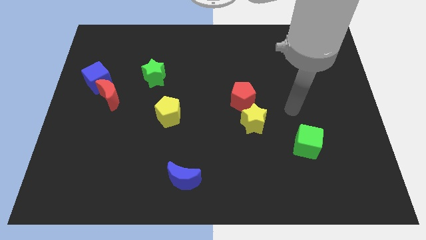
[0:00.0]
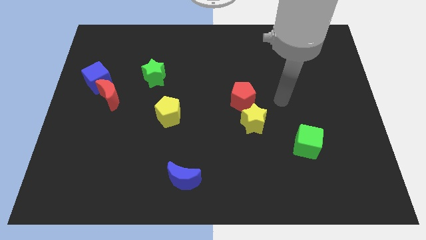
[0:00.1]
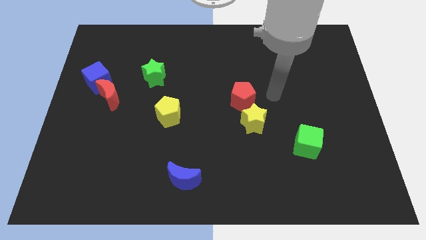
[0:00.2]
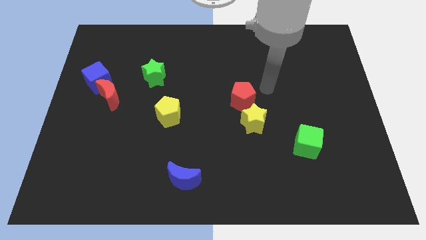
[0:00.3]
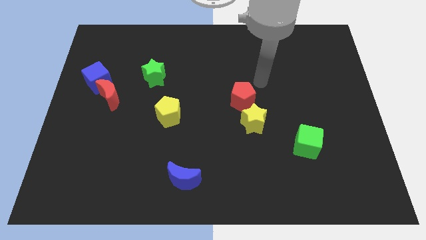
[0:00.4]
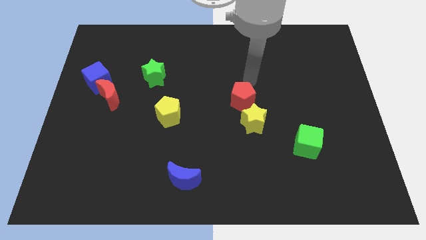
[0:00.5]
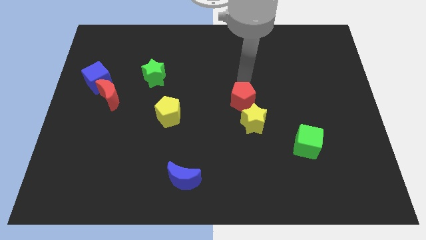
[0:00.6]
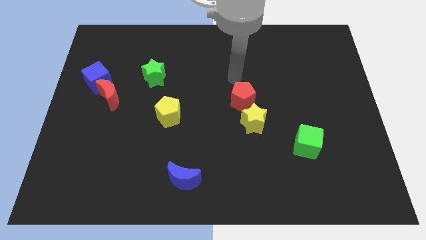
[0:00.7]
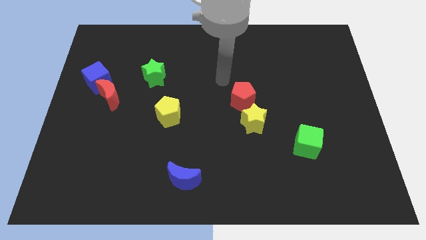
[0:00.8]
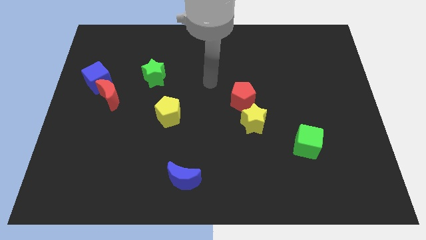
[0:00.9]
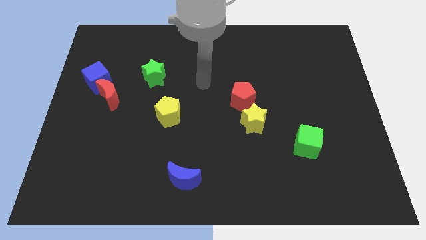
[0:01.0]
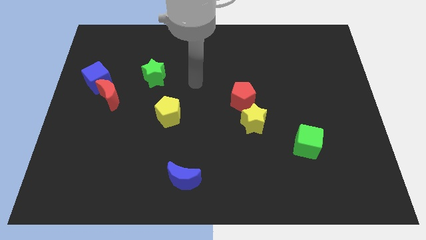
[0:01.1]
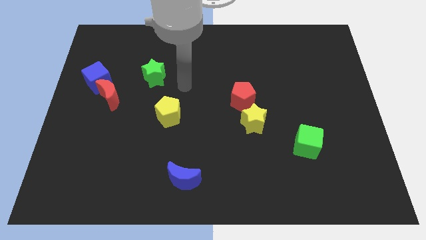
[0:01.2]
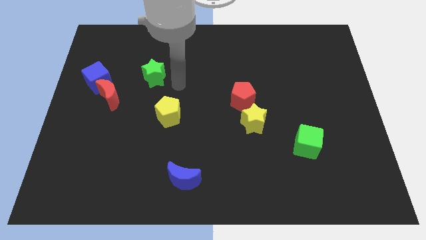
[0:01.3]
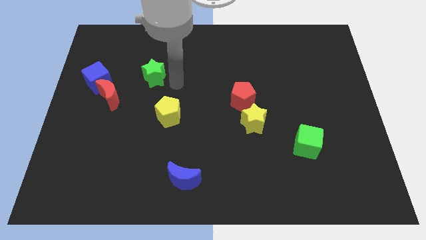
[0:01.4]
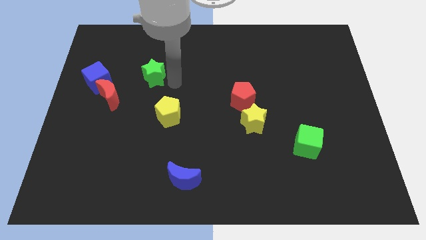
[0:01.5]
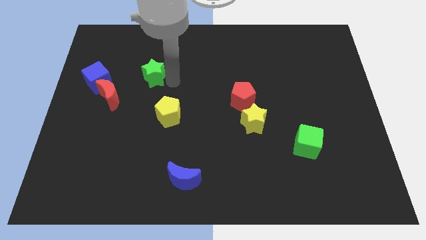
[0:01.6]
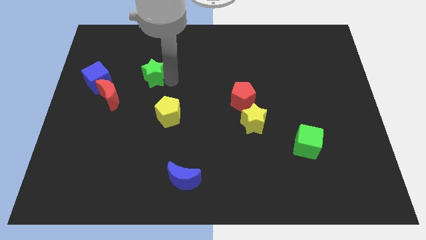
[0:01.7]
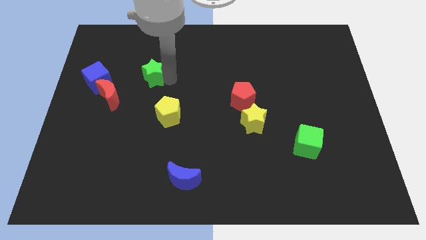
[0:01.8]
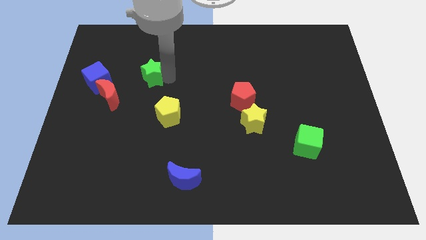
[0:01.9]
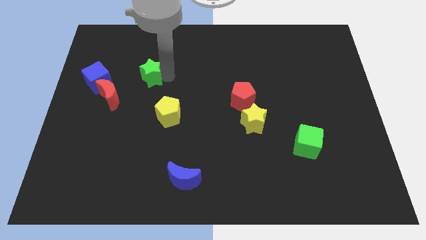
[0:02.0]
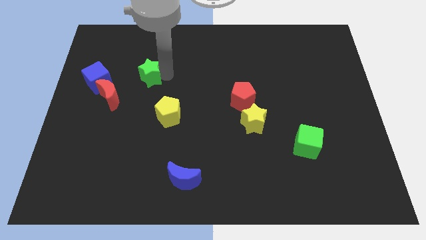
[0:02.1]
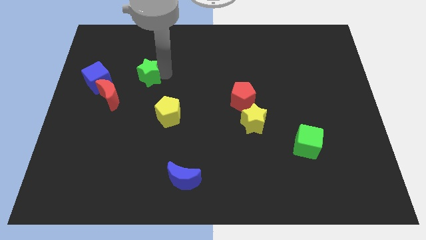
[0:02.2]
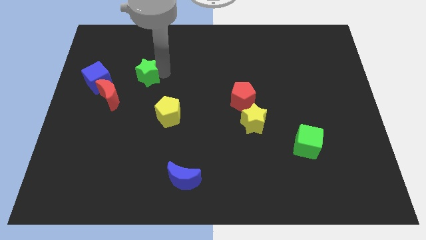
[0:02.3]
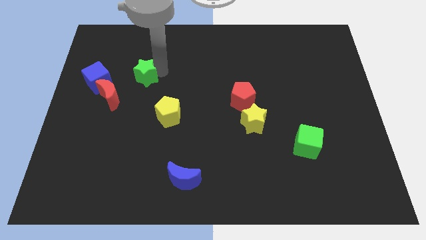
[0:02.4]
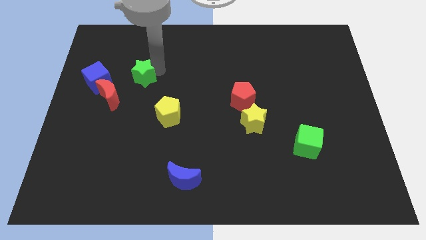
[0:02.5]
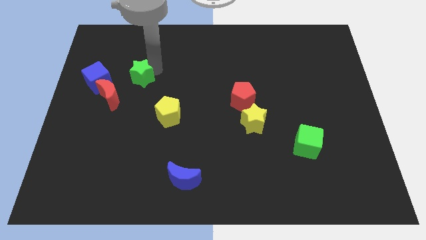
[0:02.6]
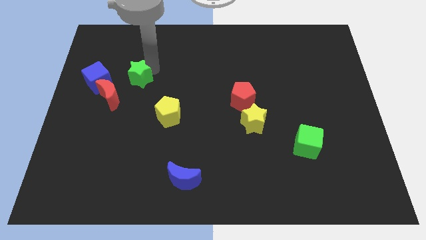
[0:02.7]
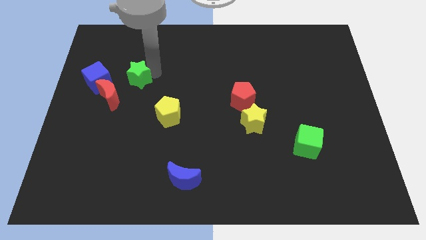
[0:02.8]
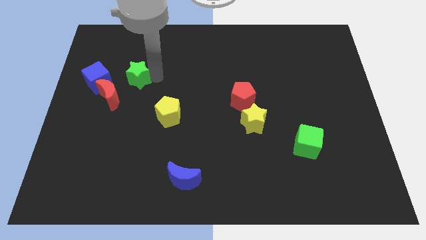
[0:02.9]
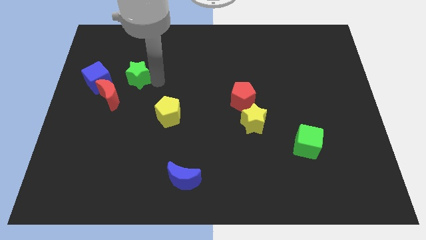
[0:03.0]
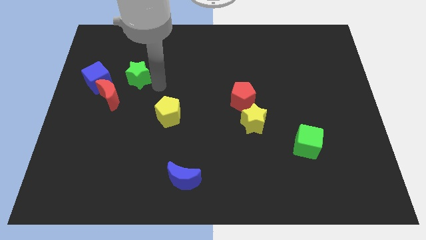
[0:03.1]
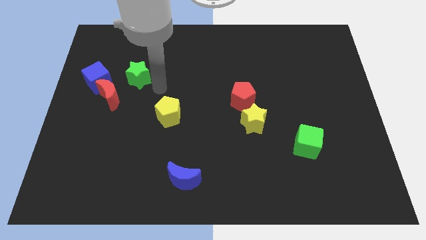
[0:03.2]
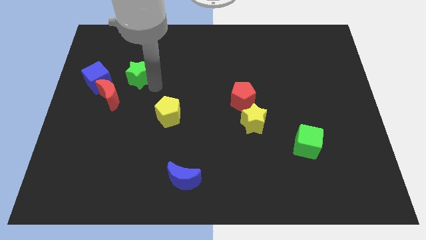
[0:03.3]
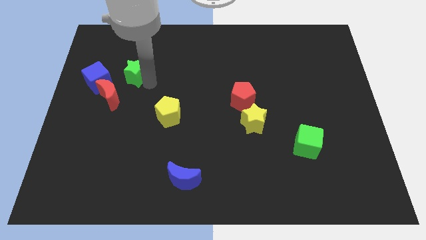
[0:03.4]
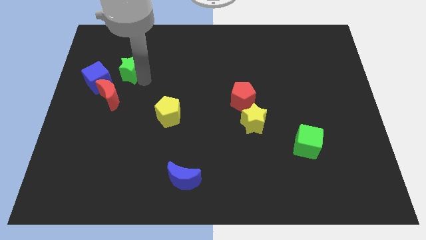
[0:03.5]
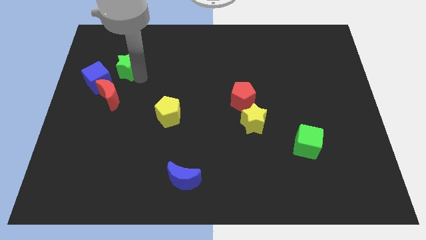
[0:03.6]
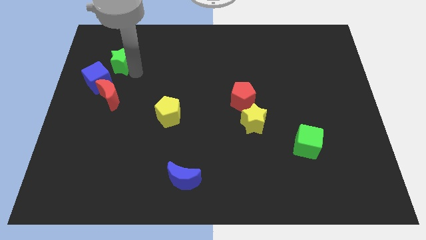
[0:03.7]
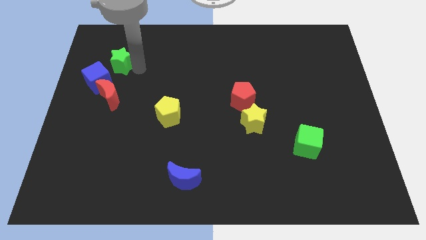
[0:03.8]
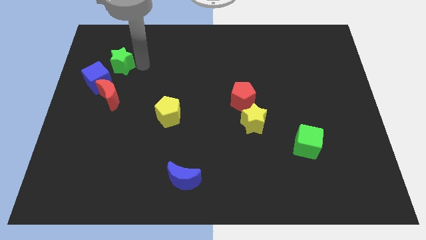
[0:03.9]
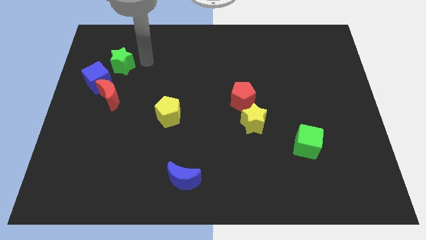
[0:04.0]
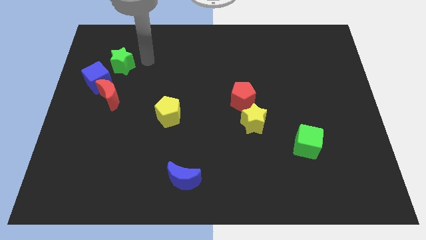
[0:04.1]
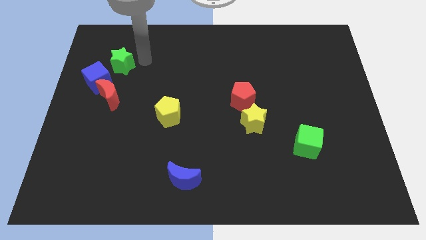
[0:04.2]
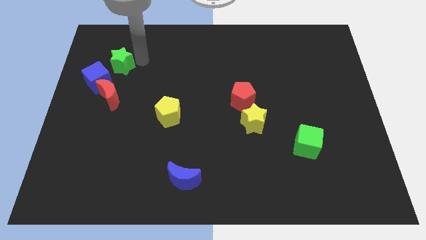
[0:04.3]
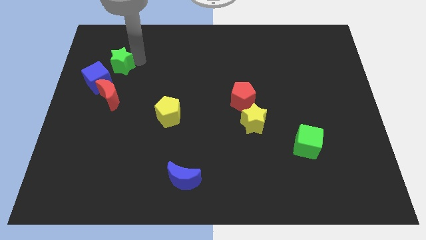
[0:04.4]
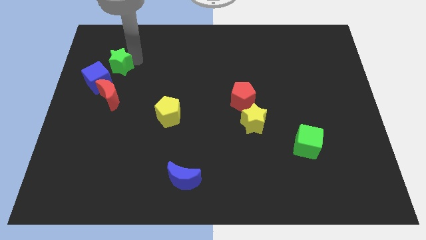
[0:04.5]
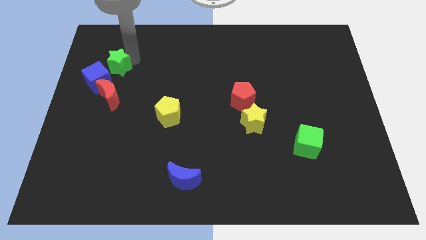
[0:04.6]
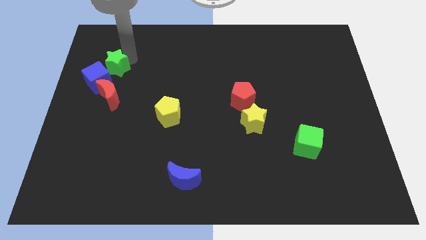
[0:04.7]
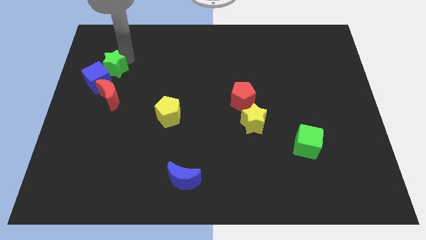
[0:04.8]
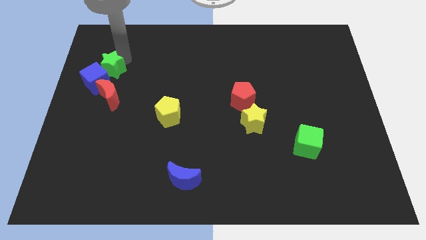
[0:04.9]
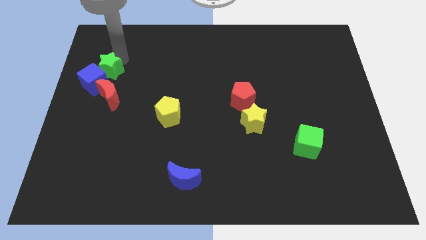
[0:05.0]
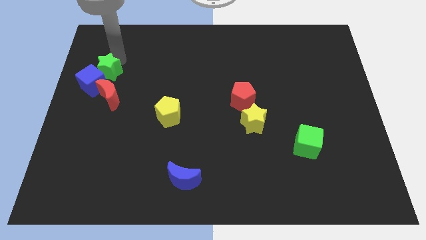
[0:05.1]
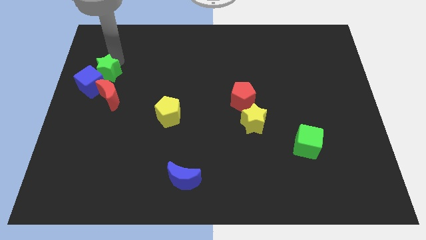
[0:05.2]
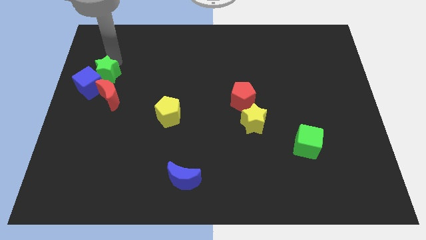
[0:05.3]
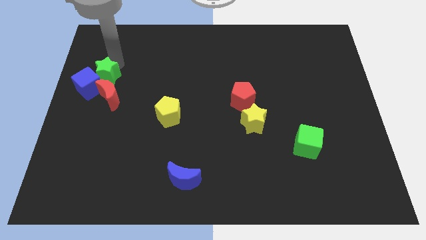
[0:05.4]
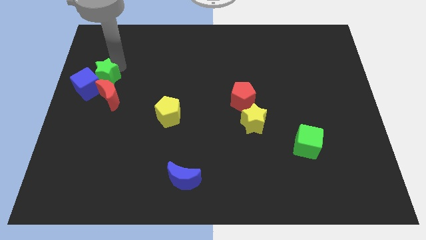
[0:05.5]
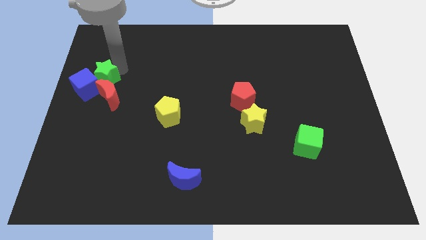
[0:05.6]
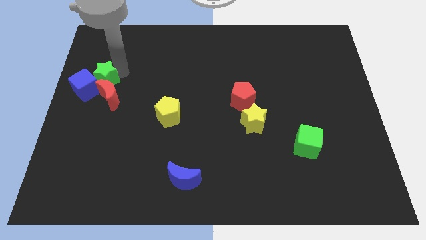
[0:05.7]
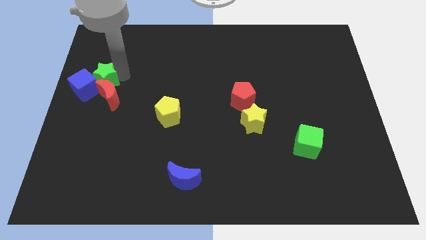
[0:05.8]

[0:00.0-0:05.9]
move the green star to the left side

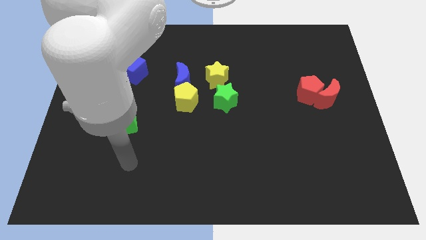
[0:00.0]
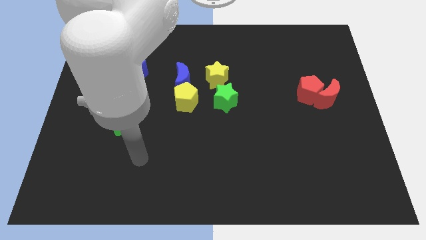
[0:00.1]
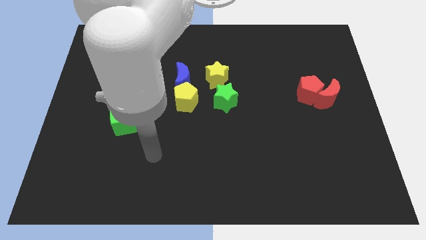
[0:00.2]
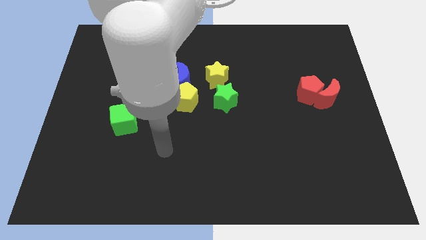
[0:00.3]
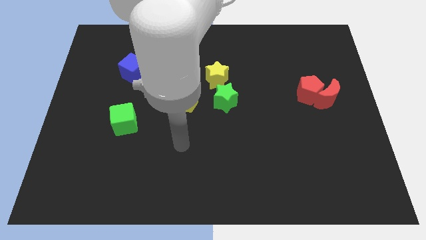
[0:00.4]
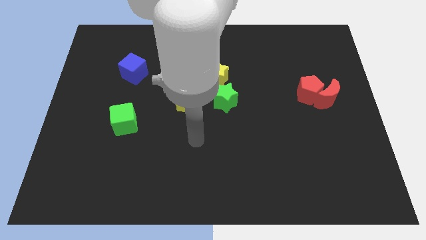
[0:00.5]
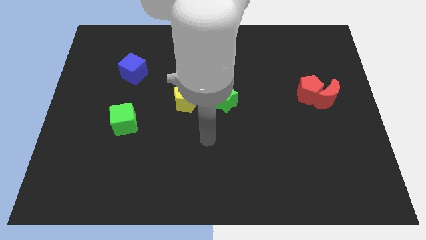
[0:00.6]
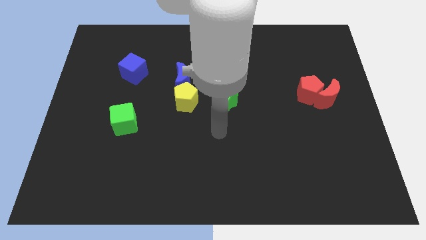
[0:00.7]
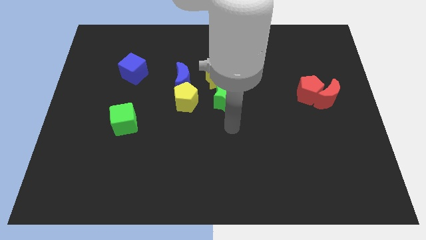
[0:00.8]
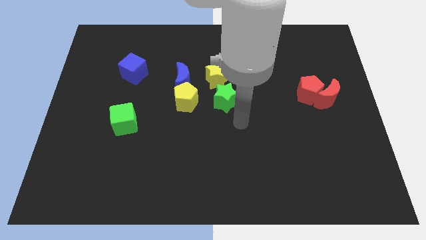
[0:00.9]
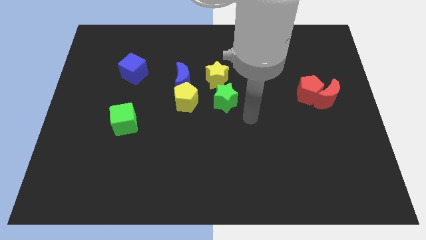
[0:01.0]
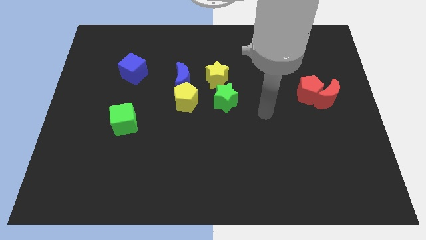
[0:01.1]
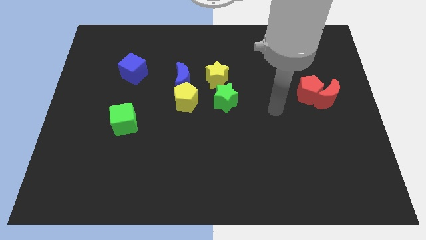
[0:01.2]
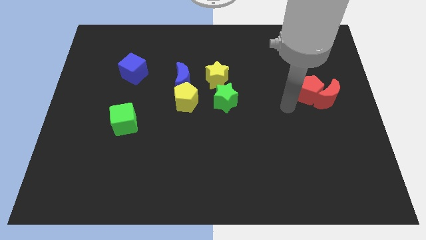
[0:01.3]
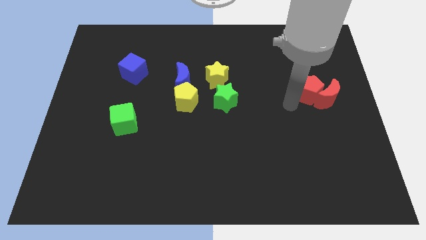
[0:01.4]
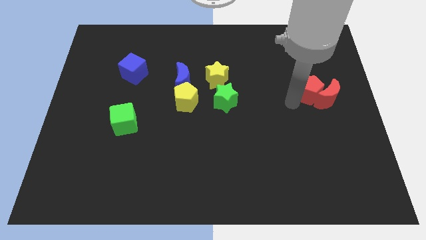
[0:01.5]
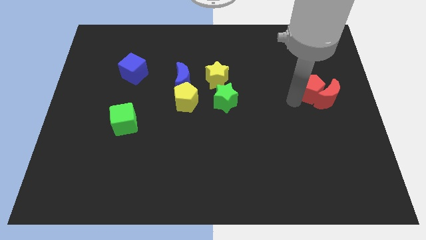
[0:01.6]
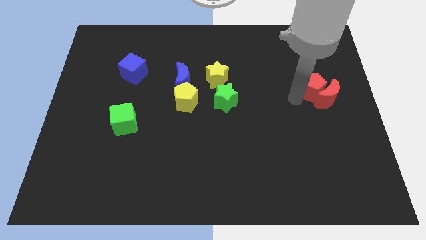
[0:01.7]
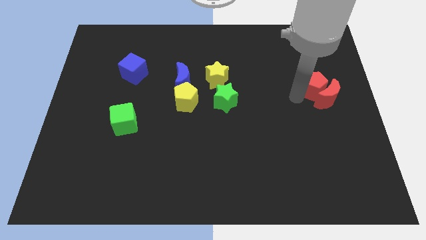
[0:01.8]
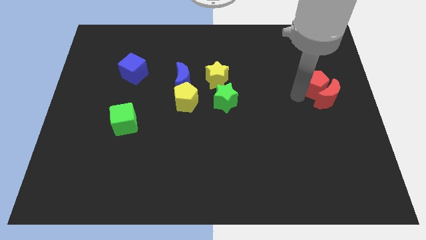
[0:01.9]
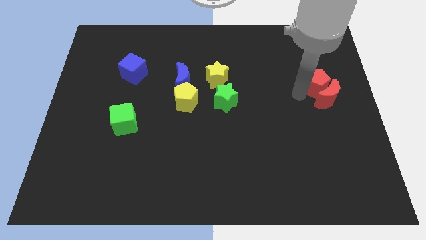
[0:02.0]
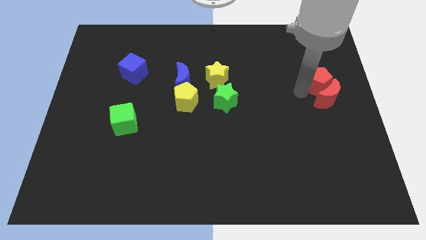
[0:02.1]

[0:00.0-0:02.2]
slide the red pentagon to the right side of the board
